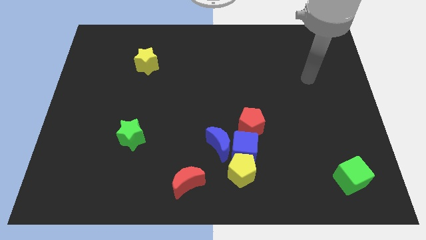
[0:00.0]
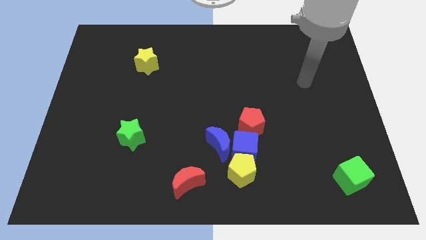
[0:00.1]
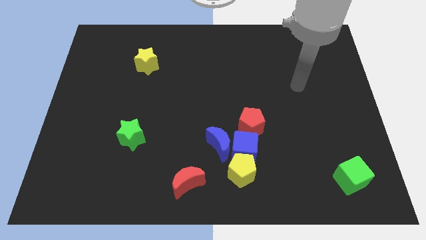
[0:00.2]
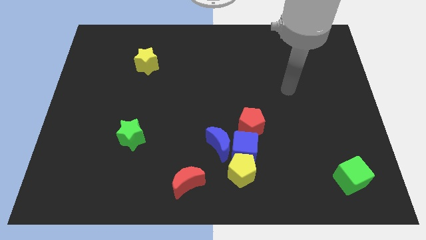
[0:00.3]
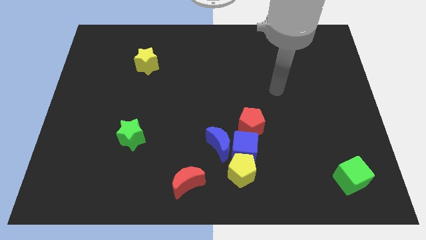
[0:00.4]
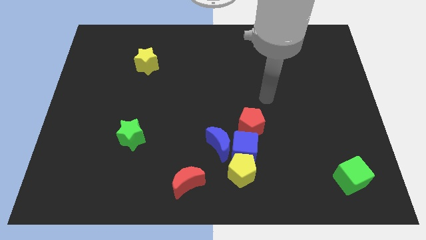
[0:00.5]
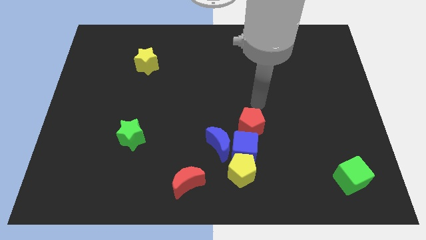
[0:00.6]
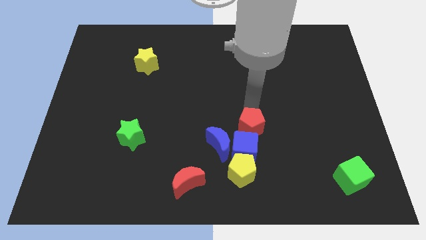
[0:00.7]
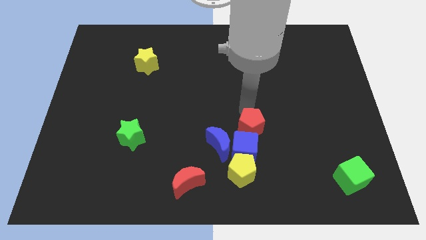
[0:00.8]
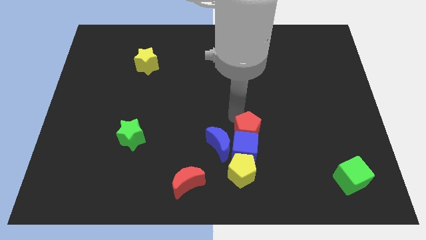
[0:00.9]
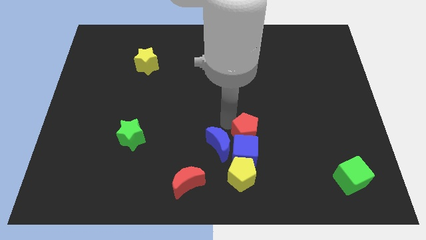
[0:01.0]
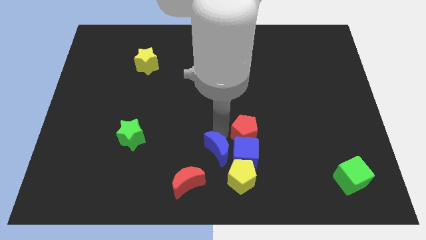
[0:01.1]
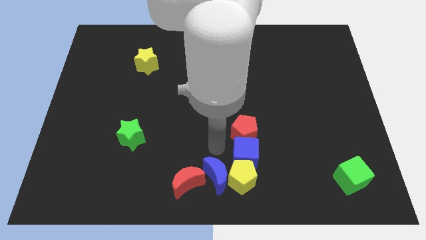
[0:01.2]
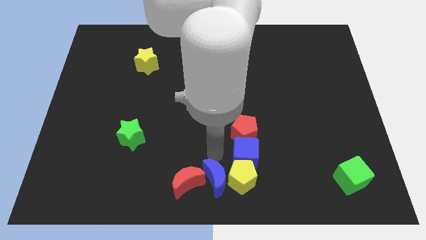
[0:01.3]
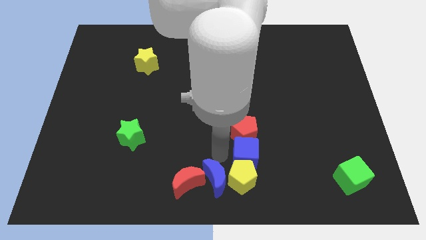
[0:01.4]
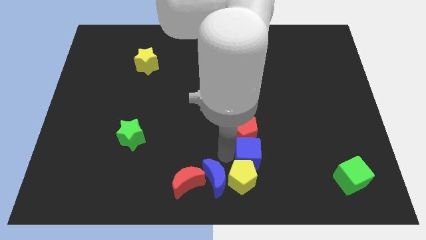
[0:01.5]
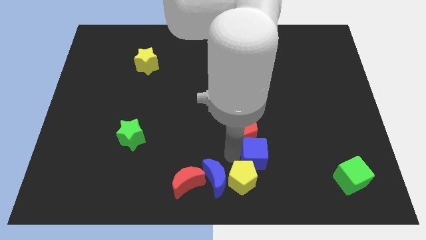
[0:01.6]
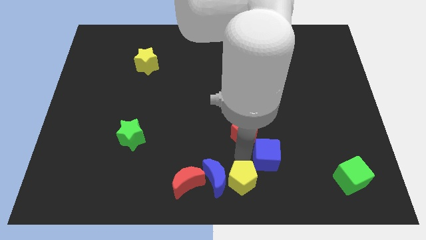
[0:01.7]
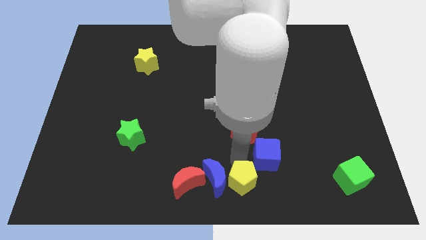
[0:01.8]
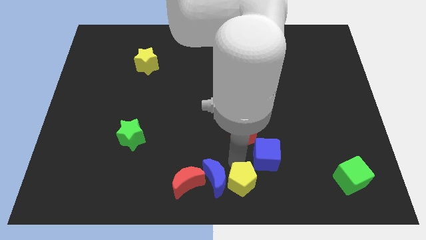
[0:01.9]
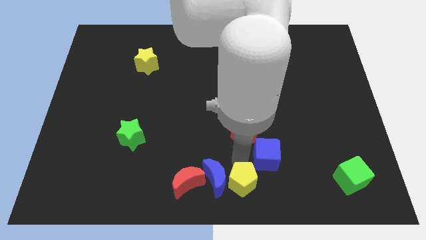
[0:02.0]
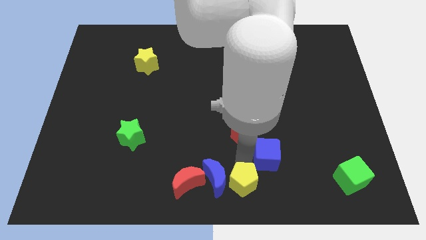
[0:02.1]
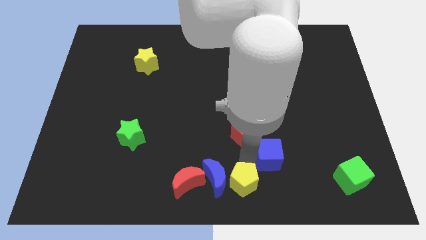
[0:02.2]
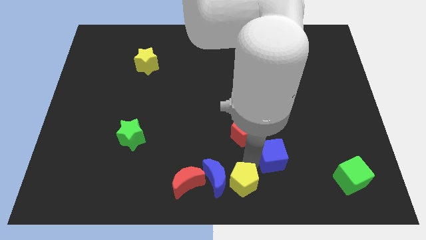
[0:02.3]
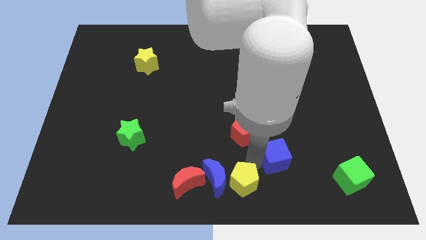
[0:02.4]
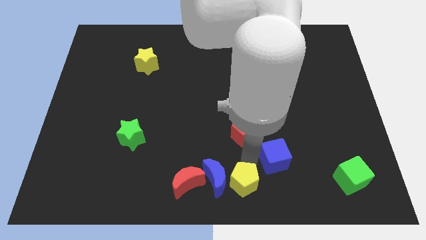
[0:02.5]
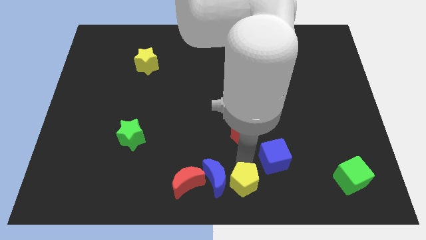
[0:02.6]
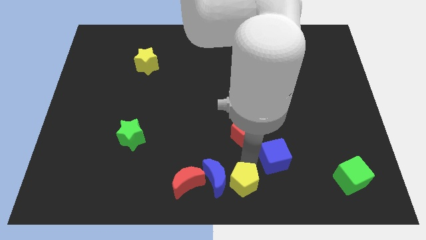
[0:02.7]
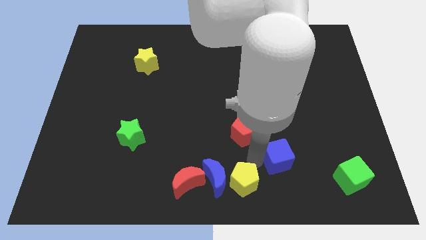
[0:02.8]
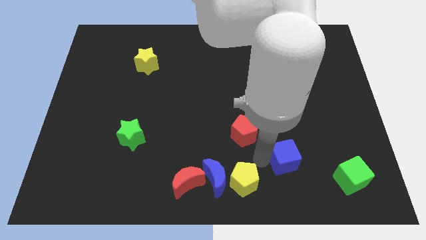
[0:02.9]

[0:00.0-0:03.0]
move the blue cube away from the group of blocks

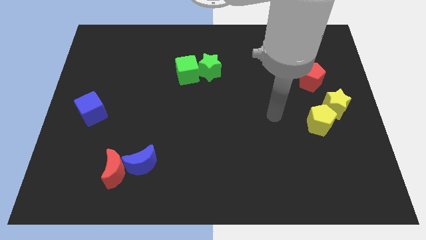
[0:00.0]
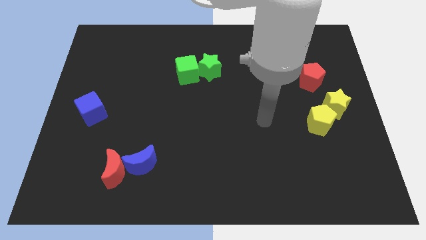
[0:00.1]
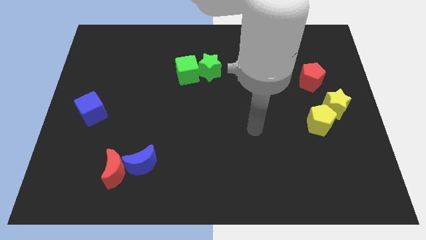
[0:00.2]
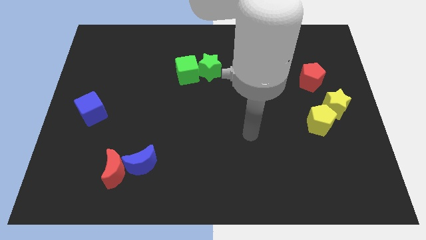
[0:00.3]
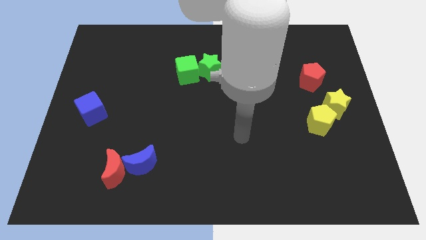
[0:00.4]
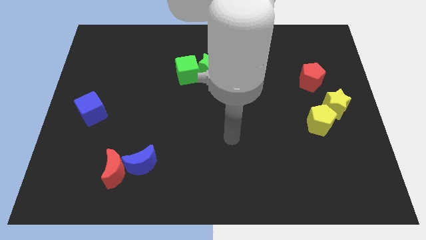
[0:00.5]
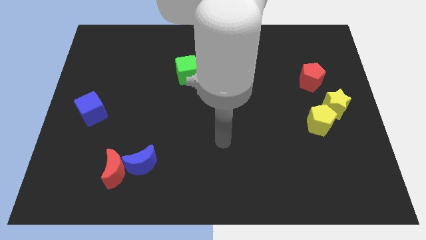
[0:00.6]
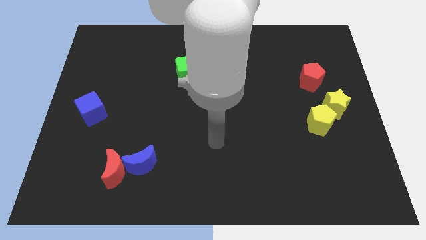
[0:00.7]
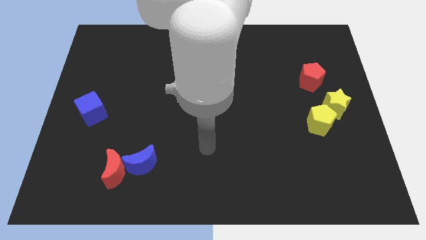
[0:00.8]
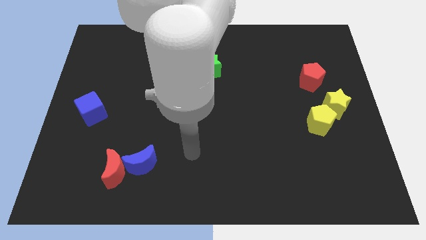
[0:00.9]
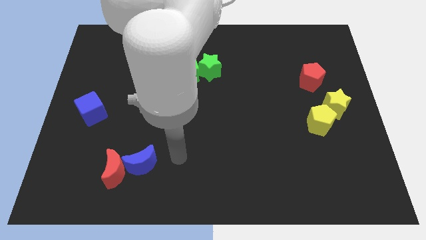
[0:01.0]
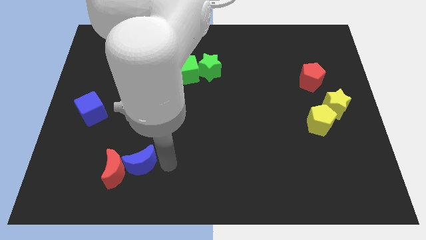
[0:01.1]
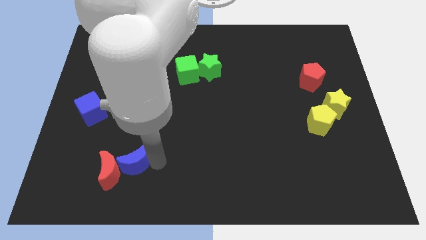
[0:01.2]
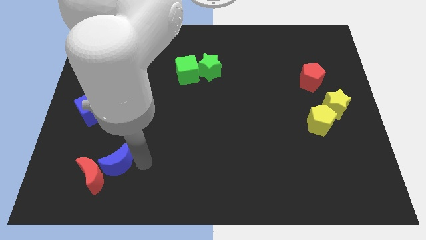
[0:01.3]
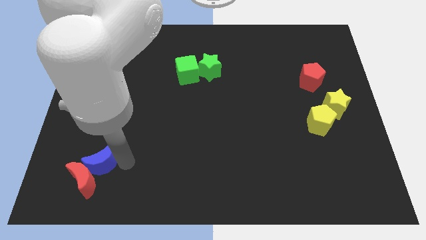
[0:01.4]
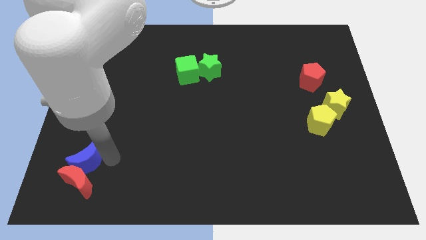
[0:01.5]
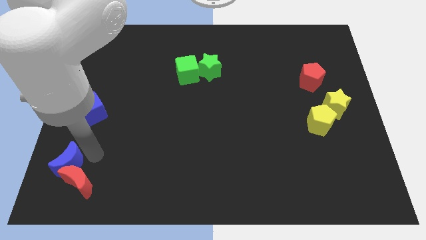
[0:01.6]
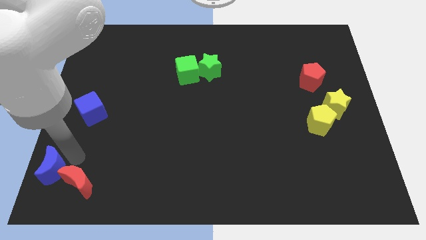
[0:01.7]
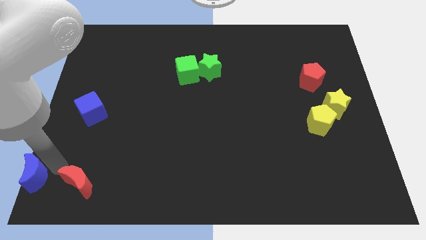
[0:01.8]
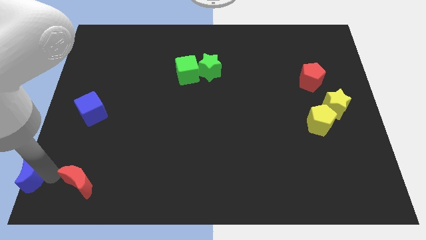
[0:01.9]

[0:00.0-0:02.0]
move the red moon away from the blue moon

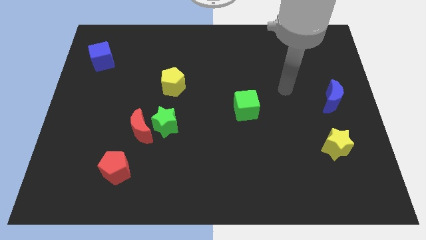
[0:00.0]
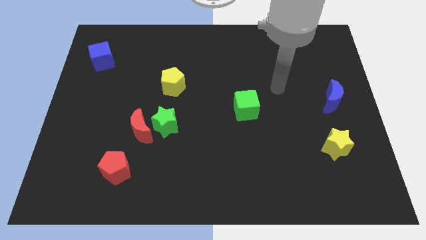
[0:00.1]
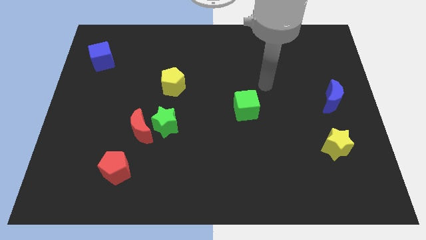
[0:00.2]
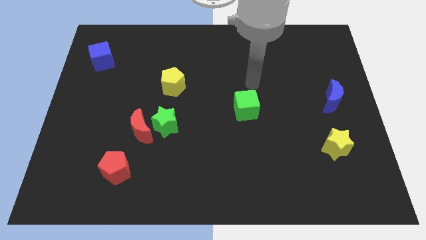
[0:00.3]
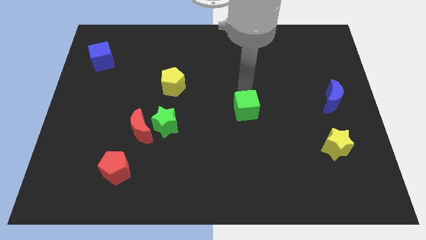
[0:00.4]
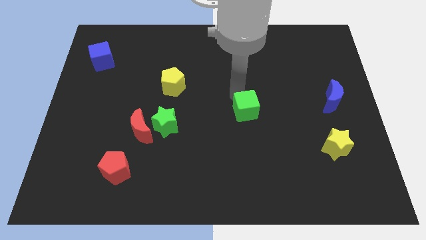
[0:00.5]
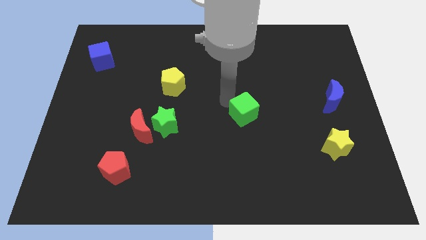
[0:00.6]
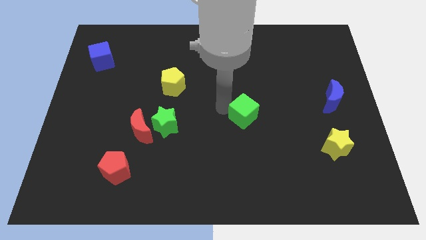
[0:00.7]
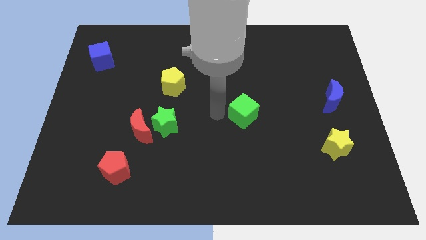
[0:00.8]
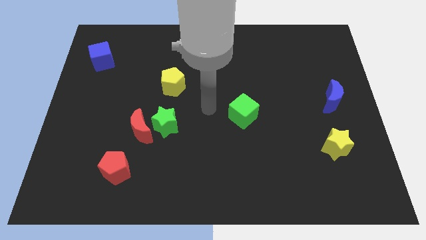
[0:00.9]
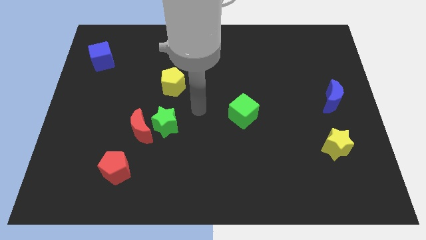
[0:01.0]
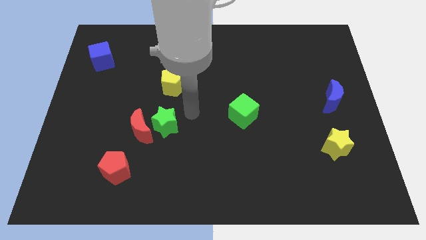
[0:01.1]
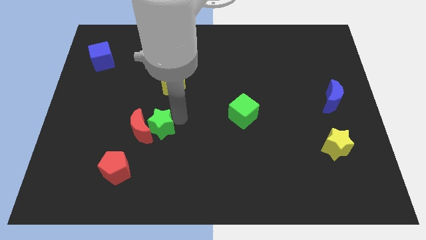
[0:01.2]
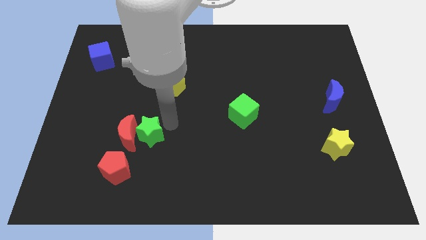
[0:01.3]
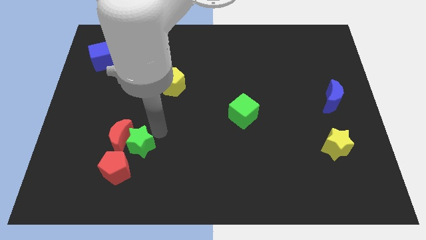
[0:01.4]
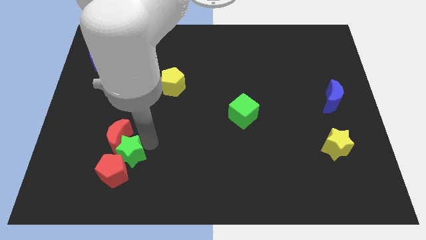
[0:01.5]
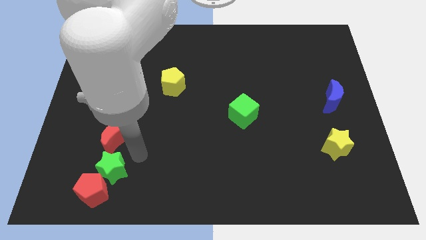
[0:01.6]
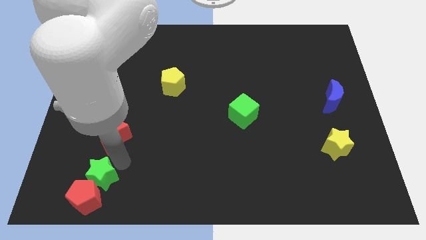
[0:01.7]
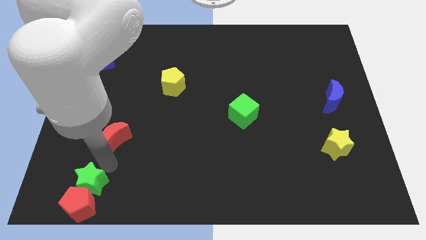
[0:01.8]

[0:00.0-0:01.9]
move the red moon away from the green star

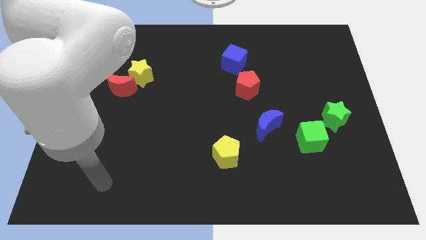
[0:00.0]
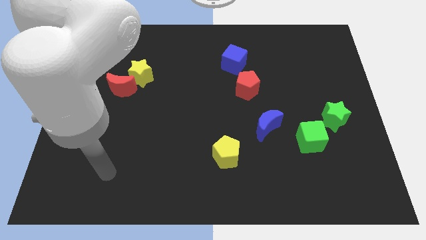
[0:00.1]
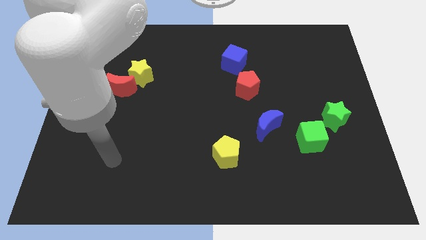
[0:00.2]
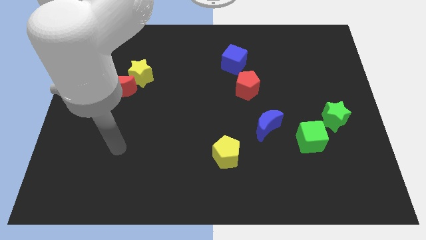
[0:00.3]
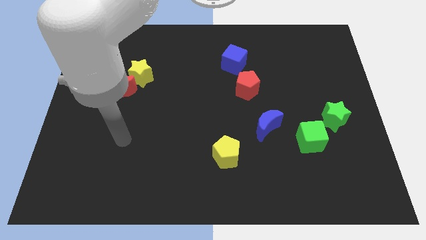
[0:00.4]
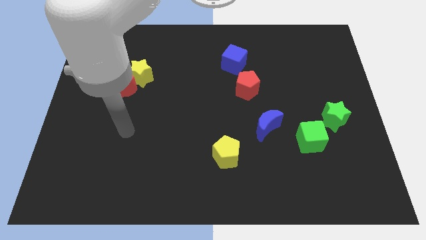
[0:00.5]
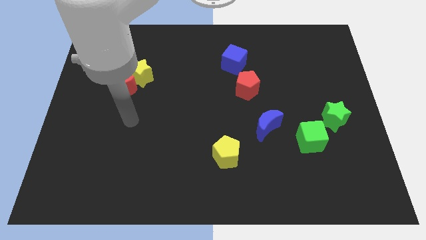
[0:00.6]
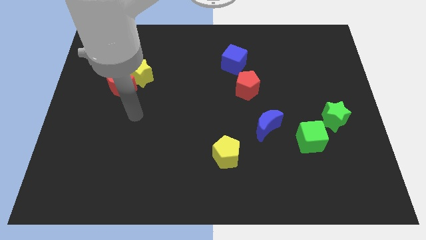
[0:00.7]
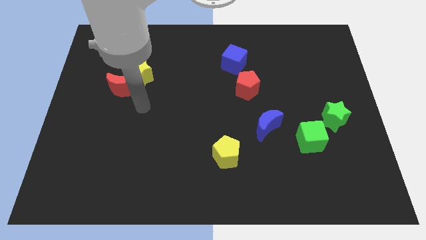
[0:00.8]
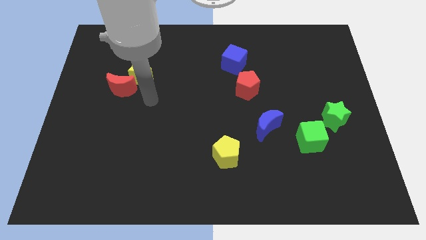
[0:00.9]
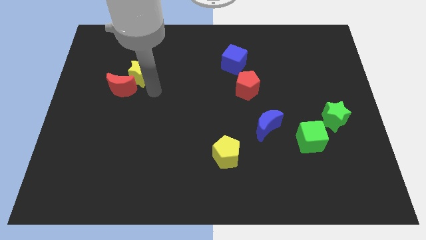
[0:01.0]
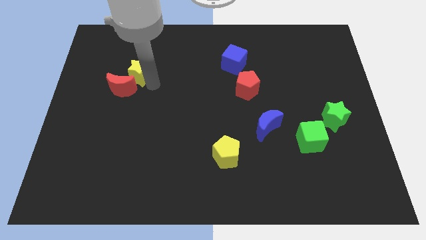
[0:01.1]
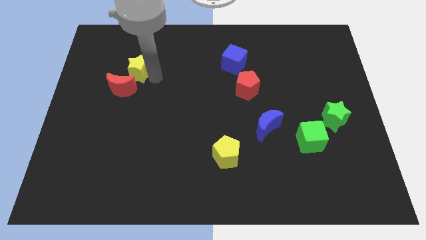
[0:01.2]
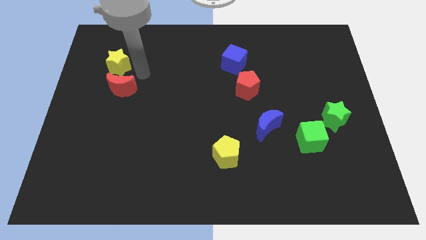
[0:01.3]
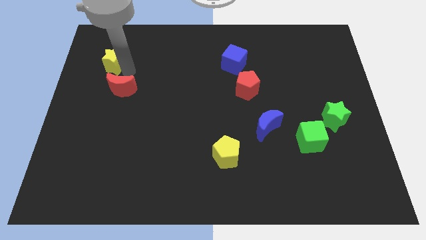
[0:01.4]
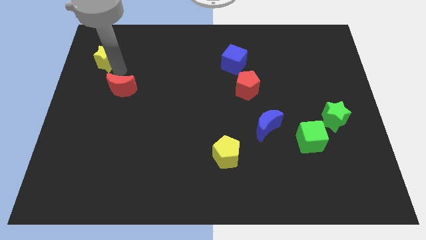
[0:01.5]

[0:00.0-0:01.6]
separate the red moon from the yellow star

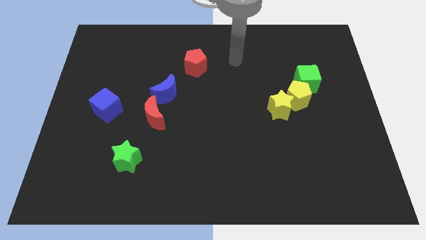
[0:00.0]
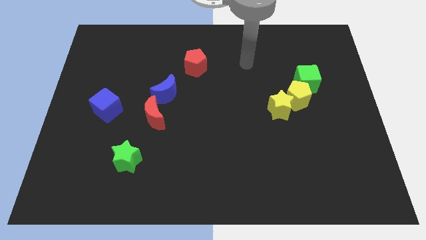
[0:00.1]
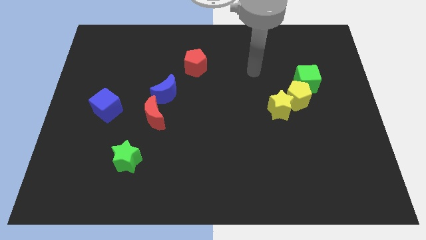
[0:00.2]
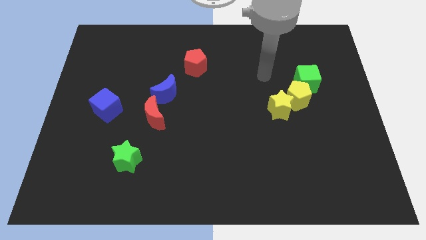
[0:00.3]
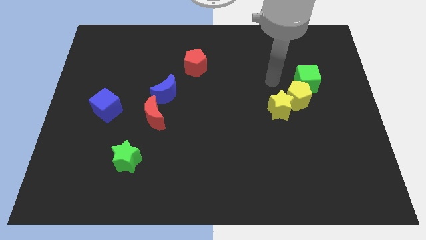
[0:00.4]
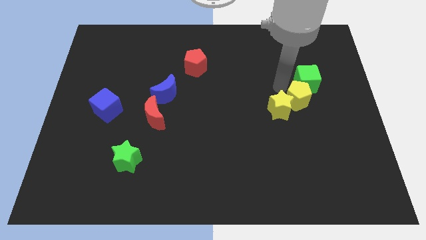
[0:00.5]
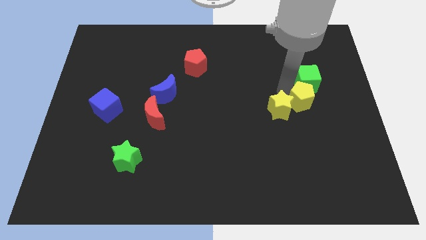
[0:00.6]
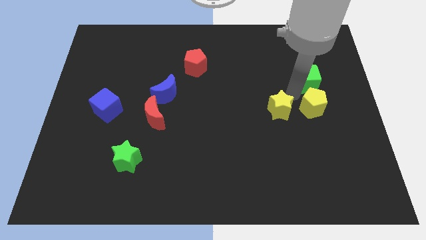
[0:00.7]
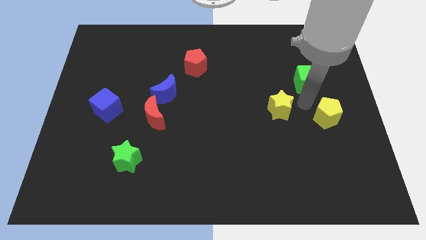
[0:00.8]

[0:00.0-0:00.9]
move the yellow star away from the yellow pentagon
